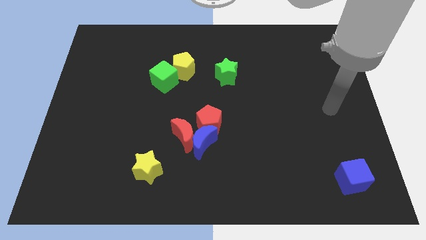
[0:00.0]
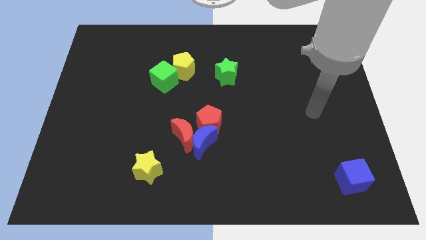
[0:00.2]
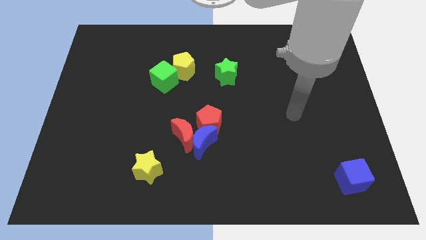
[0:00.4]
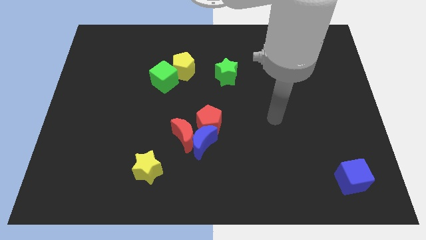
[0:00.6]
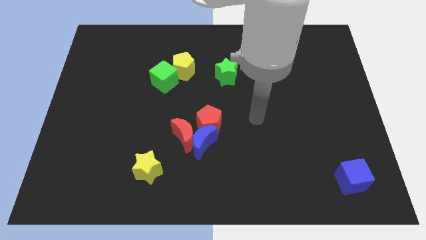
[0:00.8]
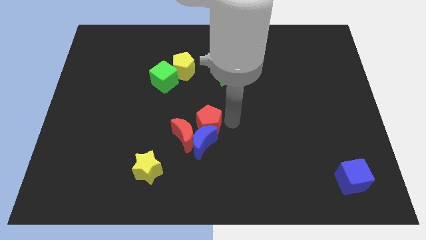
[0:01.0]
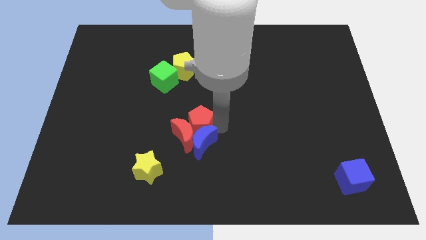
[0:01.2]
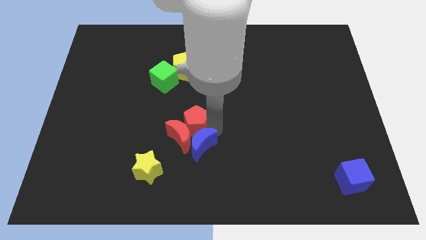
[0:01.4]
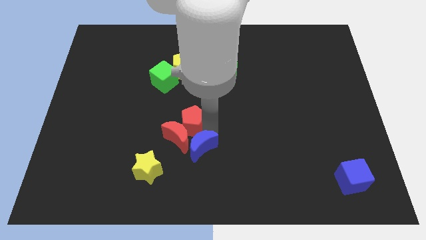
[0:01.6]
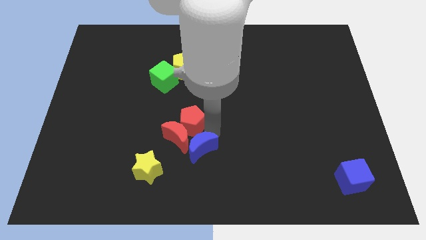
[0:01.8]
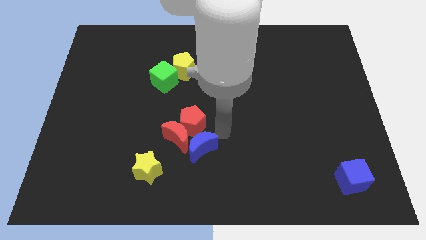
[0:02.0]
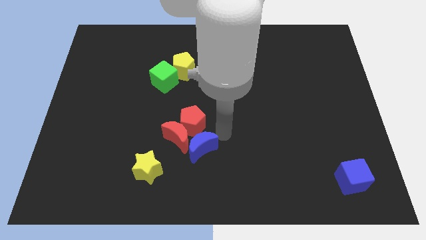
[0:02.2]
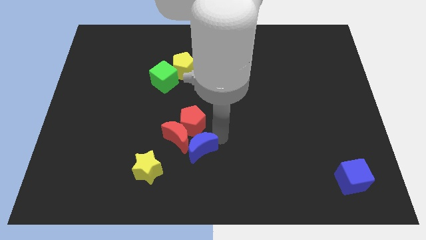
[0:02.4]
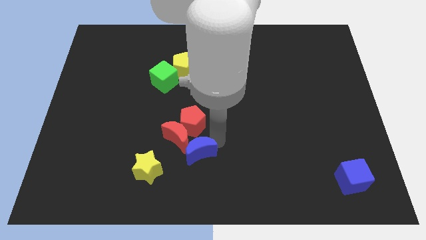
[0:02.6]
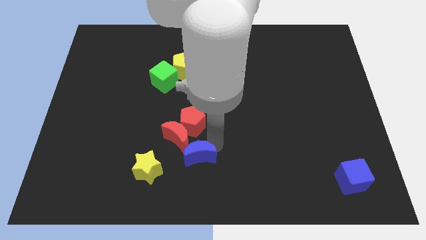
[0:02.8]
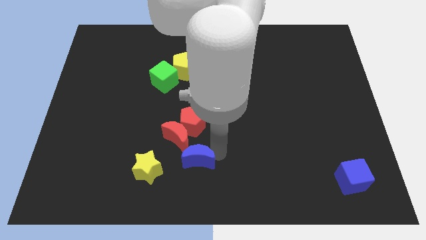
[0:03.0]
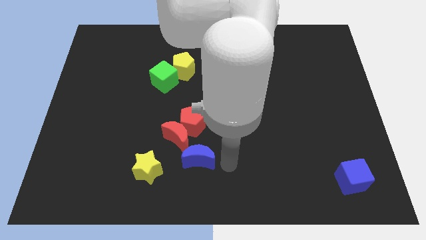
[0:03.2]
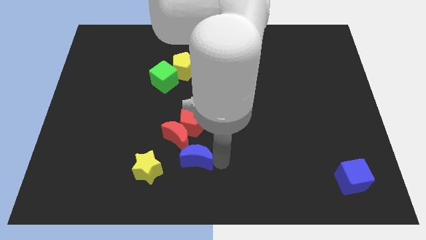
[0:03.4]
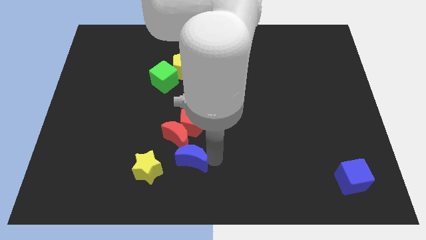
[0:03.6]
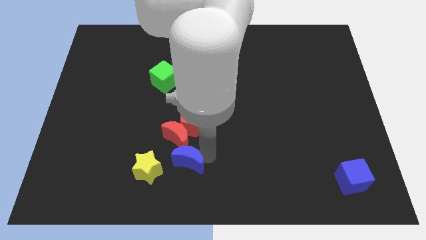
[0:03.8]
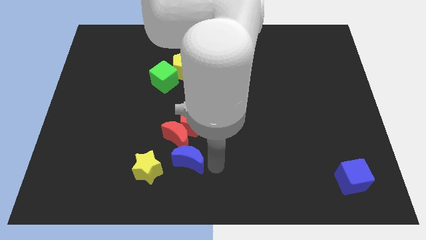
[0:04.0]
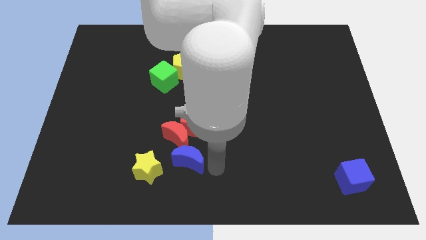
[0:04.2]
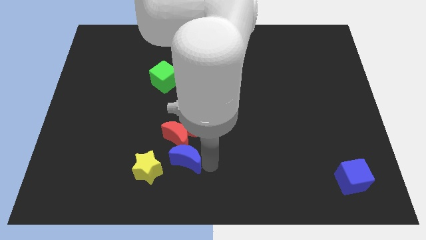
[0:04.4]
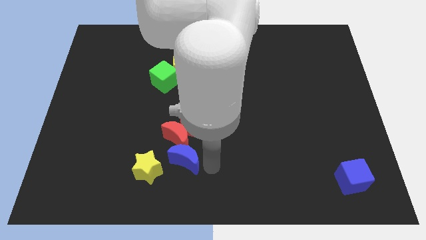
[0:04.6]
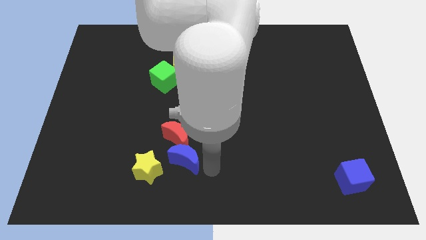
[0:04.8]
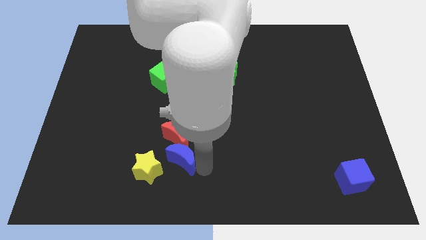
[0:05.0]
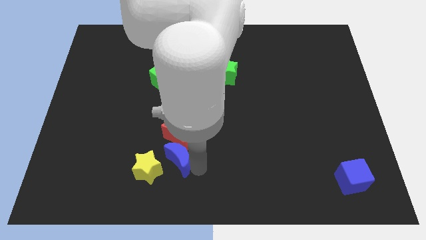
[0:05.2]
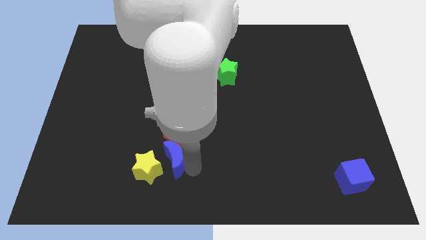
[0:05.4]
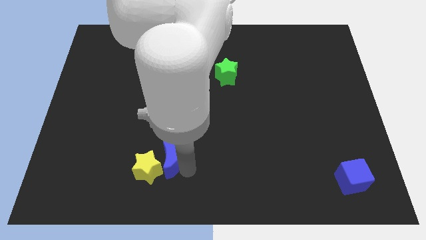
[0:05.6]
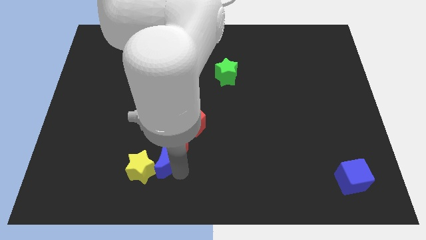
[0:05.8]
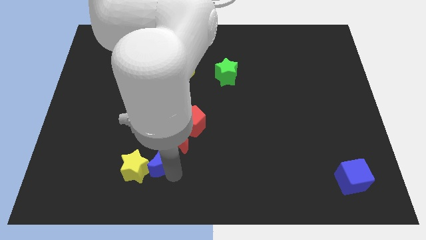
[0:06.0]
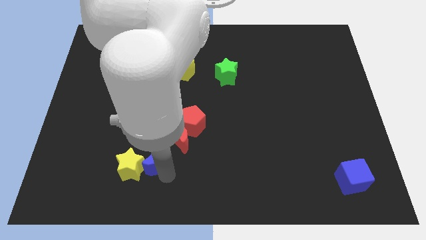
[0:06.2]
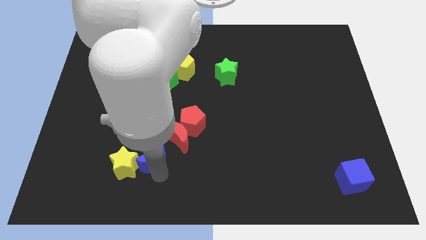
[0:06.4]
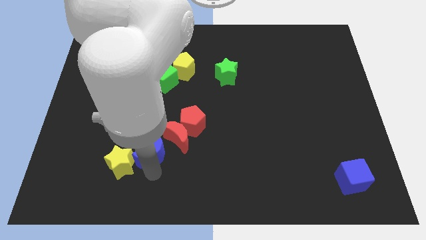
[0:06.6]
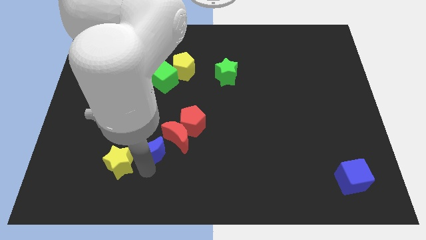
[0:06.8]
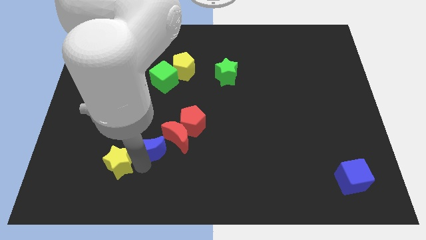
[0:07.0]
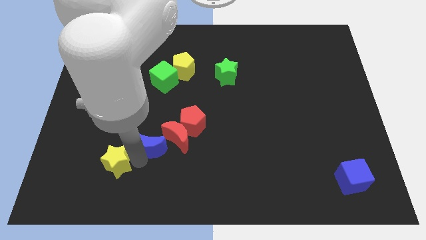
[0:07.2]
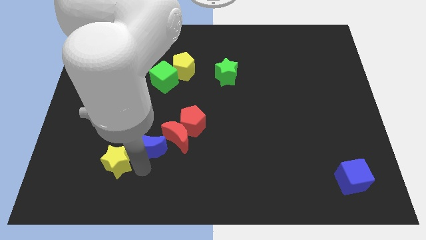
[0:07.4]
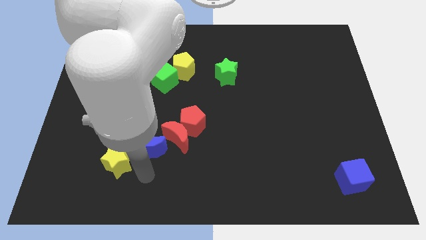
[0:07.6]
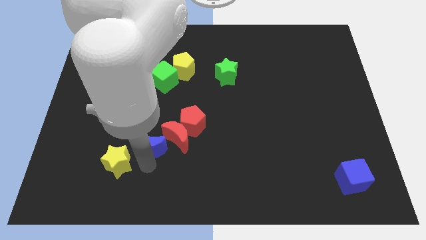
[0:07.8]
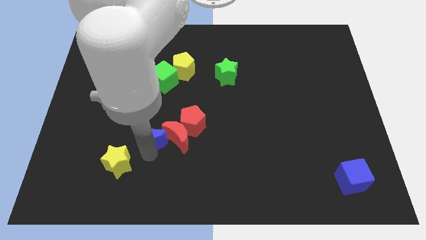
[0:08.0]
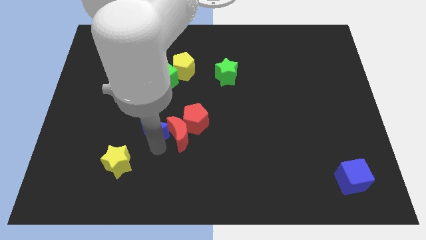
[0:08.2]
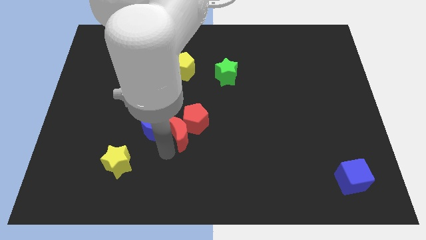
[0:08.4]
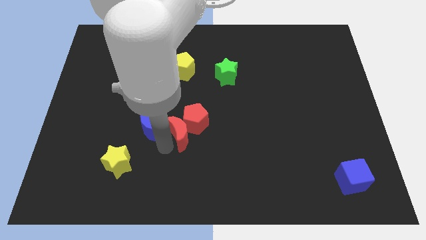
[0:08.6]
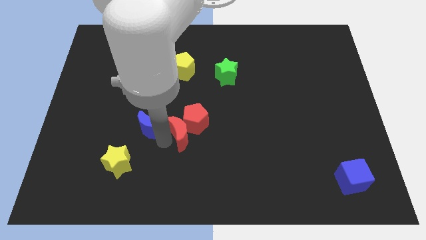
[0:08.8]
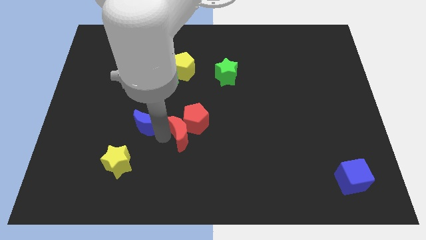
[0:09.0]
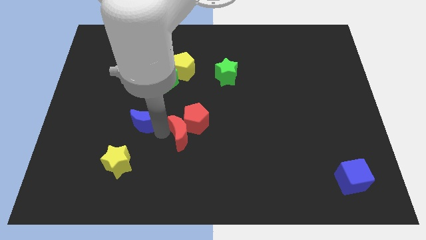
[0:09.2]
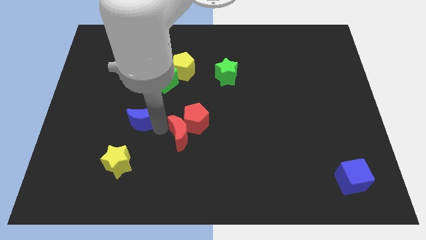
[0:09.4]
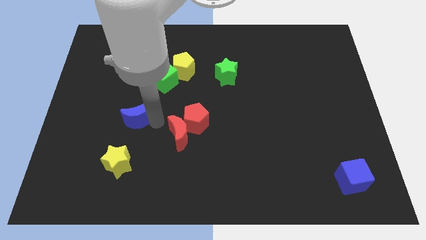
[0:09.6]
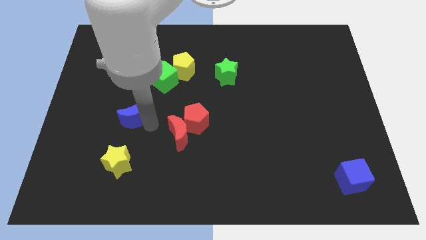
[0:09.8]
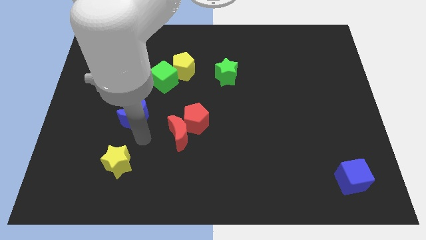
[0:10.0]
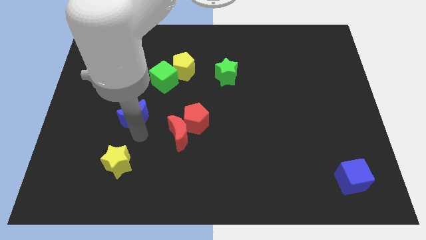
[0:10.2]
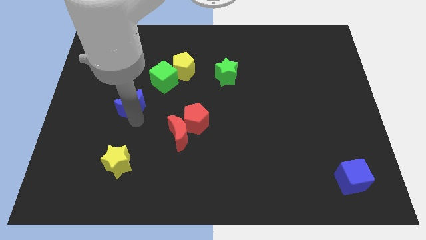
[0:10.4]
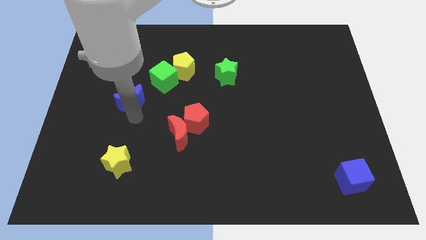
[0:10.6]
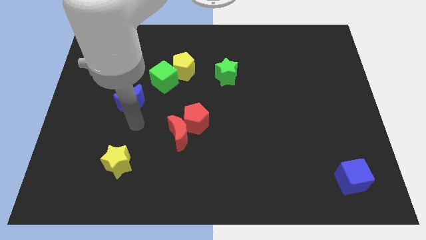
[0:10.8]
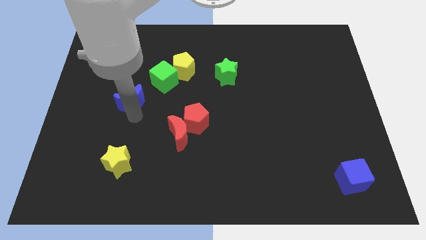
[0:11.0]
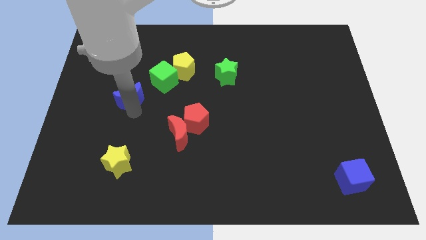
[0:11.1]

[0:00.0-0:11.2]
push the blue moon up and left

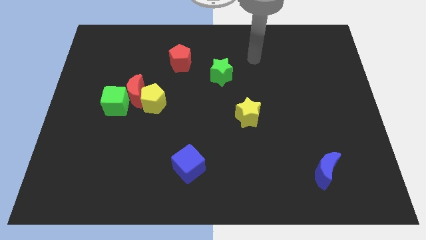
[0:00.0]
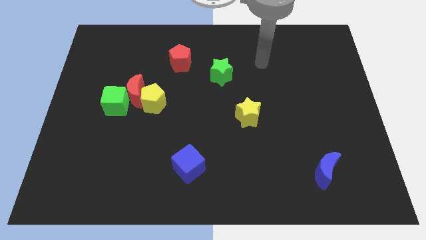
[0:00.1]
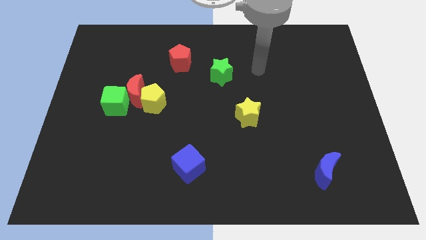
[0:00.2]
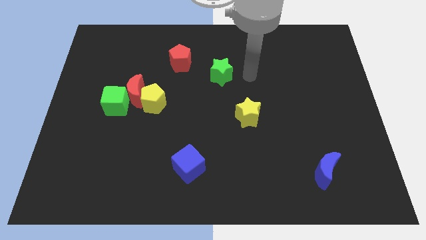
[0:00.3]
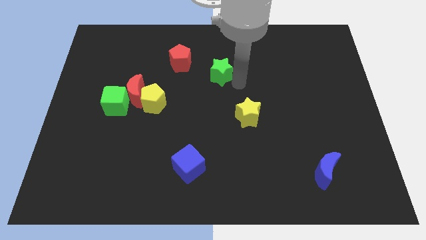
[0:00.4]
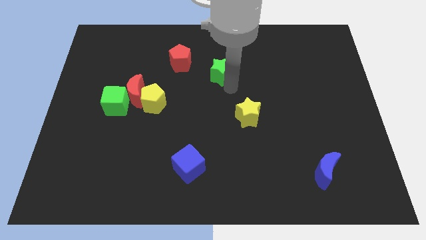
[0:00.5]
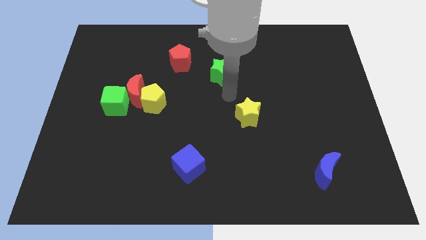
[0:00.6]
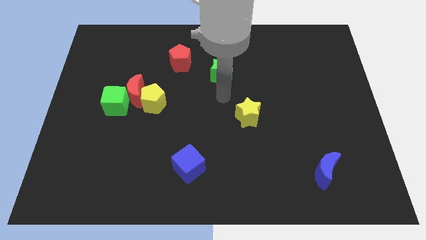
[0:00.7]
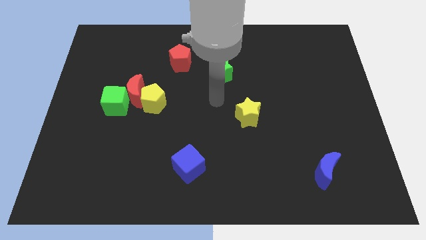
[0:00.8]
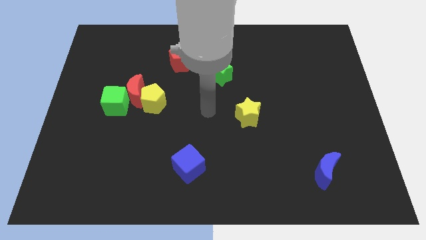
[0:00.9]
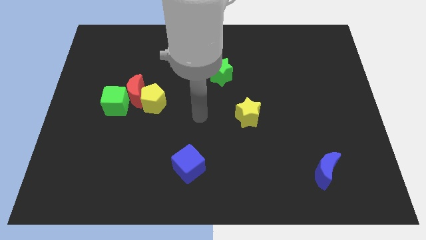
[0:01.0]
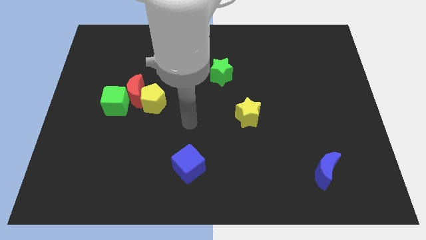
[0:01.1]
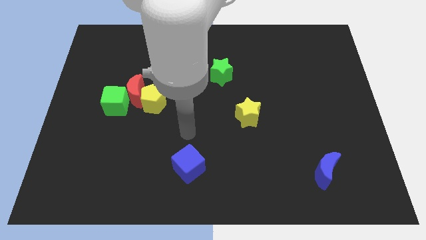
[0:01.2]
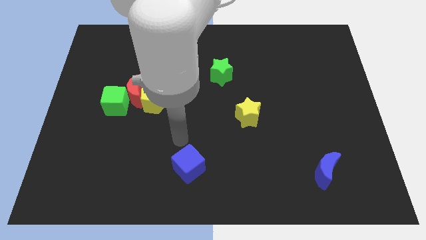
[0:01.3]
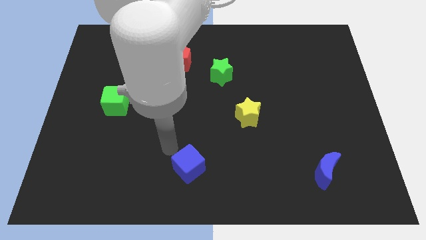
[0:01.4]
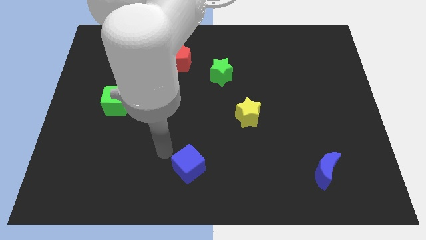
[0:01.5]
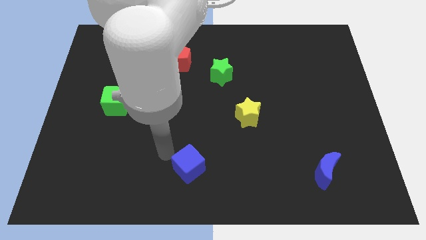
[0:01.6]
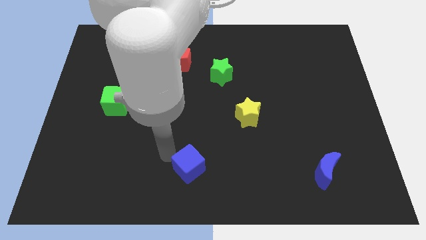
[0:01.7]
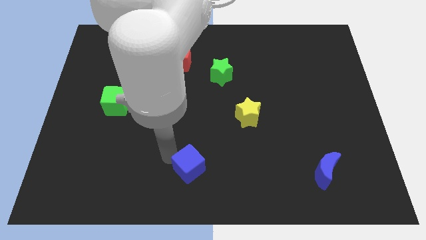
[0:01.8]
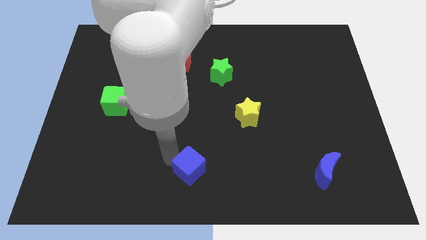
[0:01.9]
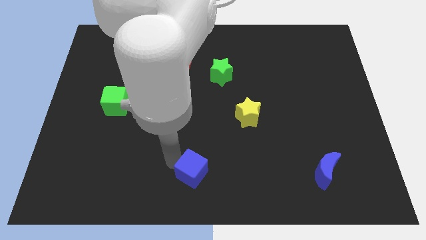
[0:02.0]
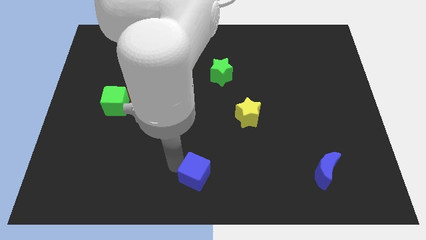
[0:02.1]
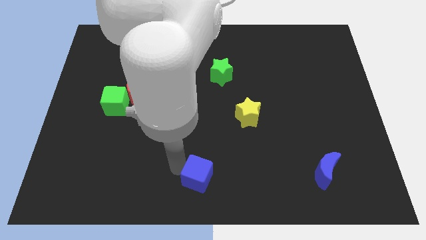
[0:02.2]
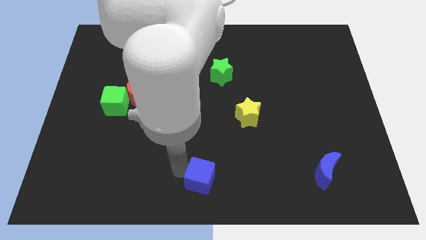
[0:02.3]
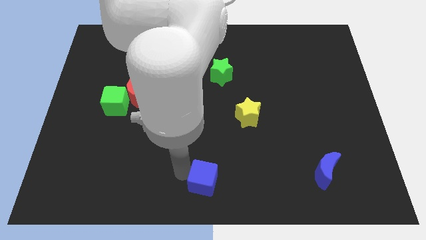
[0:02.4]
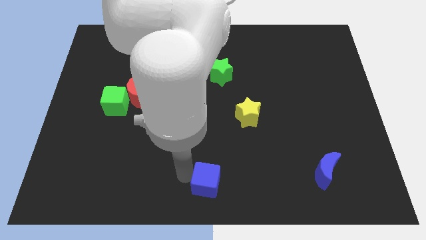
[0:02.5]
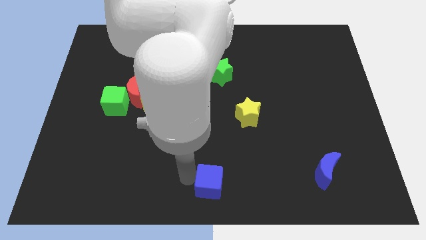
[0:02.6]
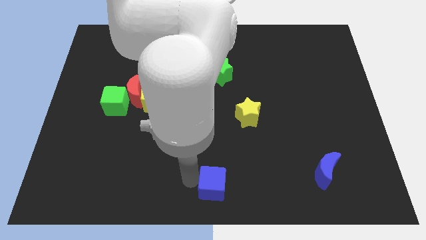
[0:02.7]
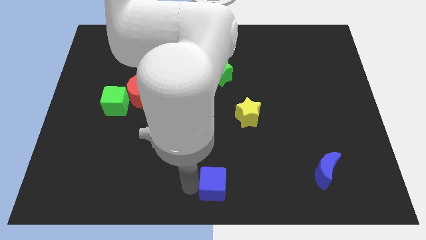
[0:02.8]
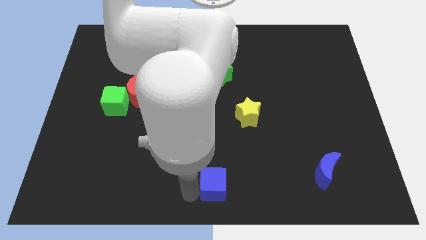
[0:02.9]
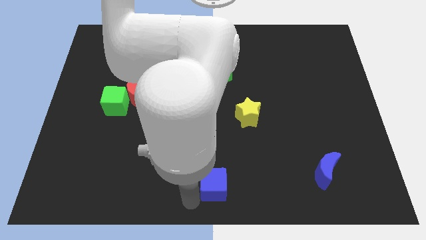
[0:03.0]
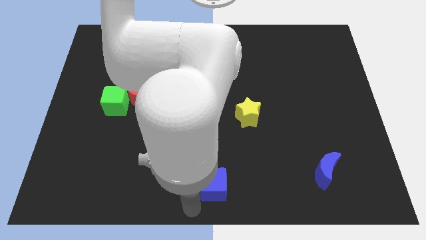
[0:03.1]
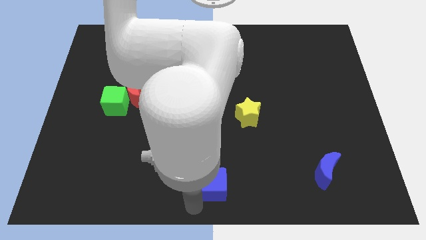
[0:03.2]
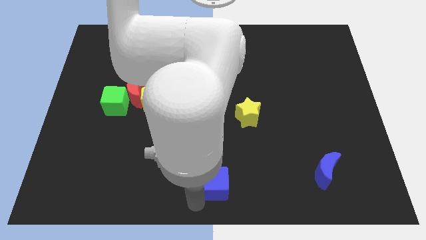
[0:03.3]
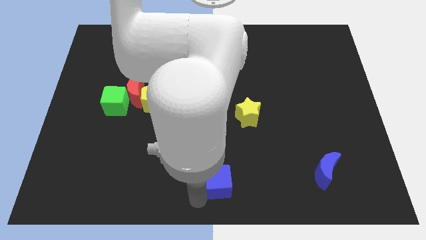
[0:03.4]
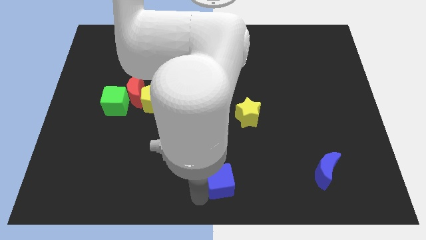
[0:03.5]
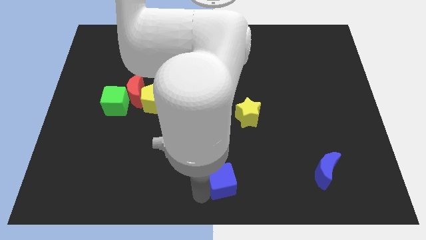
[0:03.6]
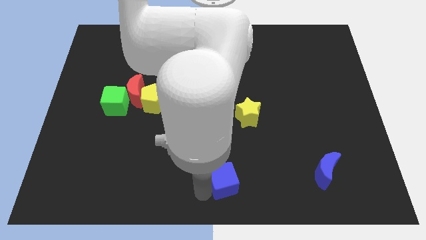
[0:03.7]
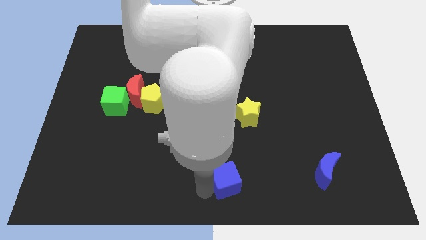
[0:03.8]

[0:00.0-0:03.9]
slide the blue cube right somewhat
